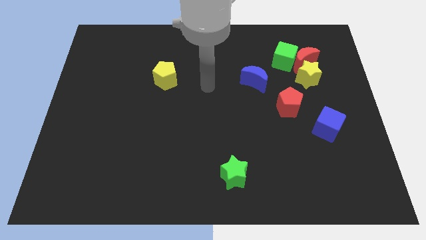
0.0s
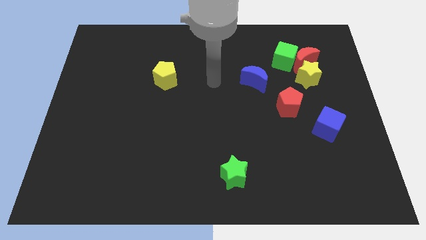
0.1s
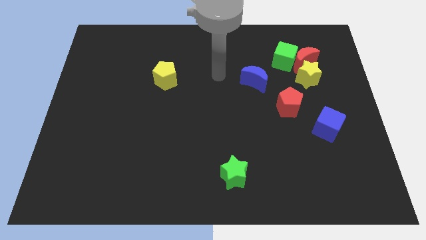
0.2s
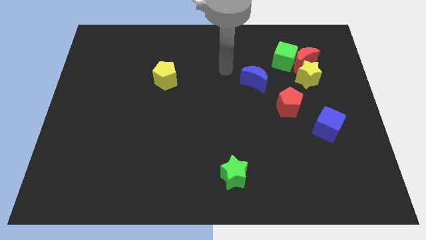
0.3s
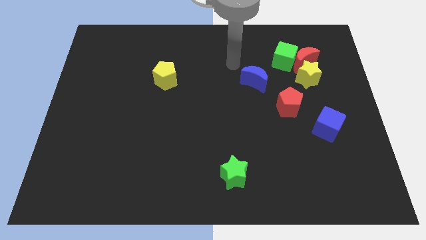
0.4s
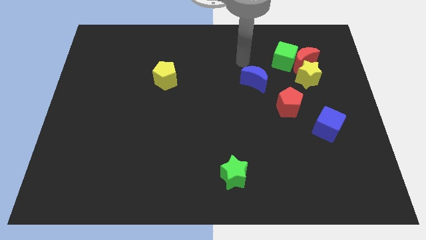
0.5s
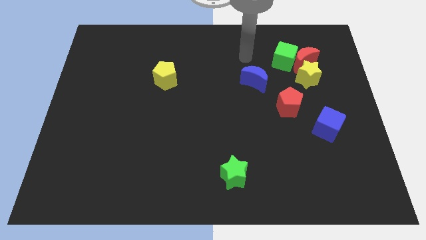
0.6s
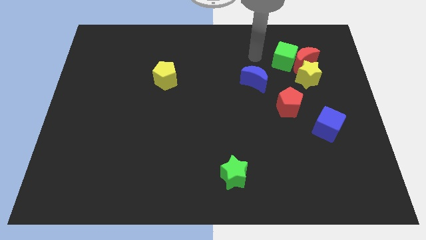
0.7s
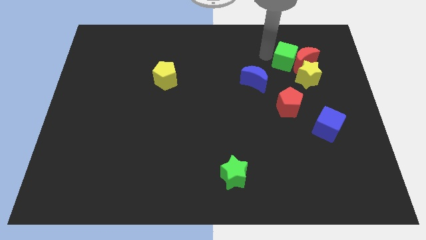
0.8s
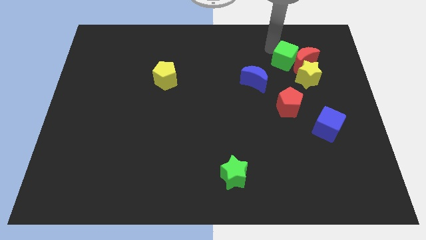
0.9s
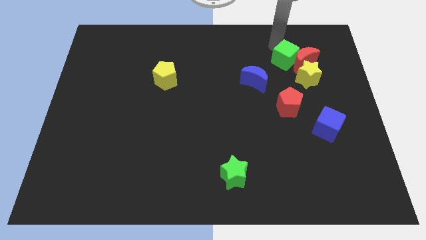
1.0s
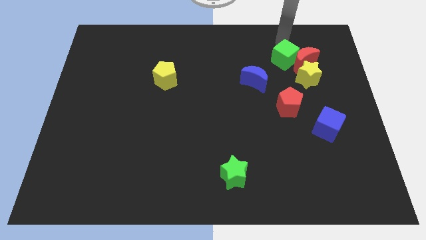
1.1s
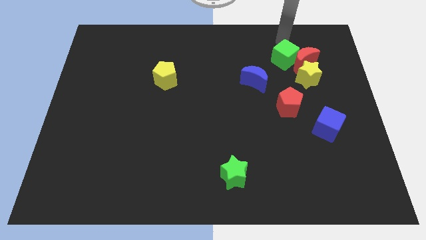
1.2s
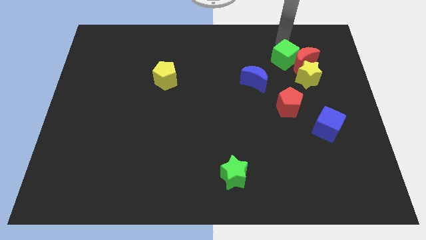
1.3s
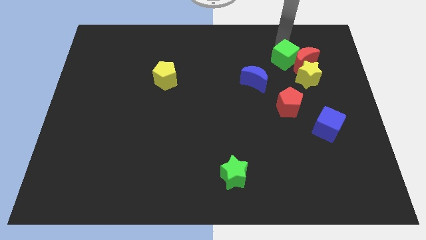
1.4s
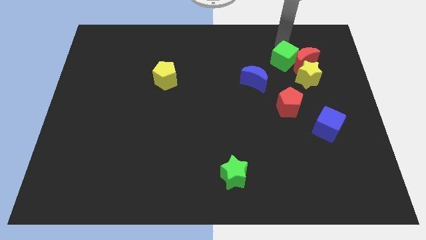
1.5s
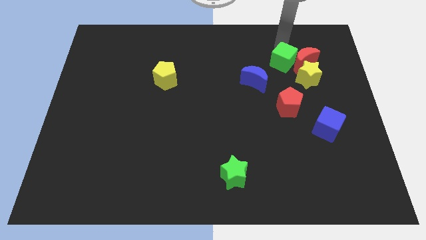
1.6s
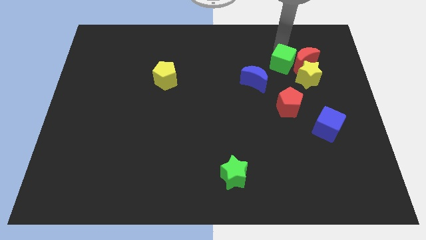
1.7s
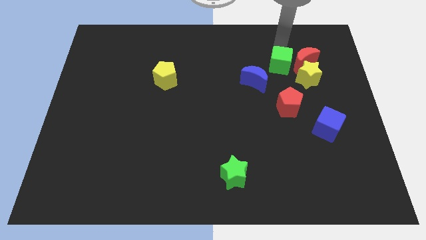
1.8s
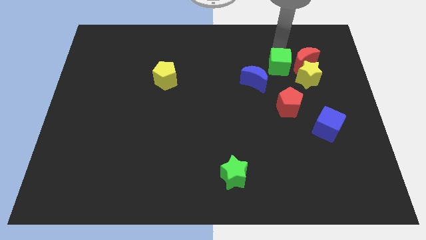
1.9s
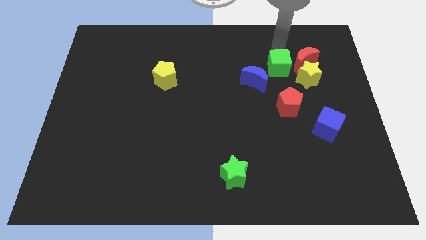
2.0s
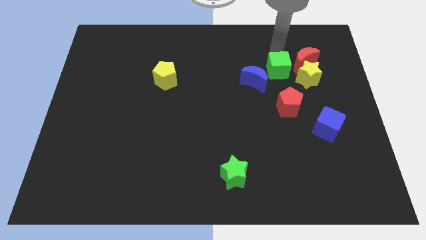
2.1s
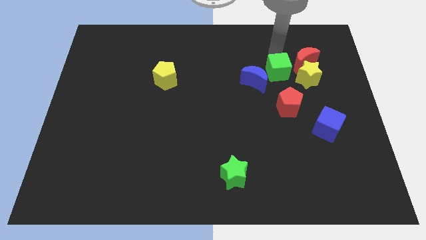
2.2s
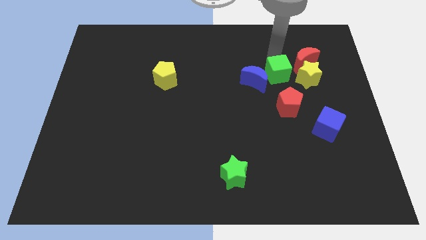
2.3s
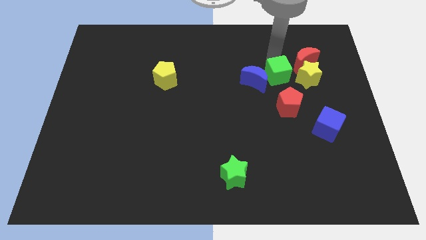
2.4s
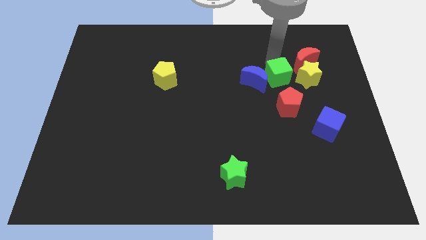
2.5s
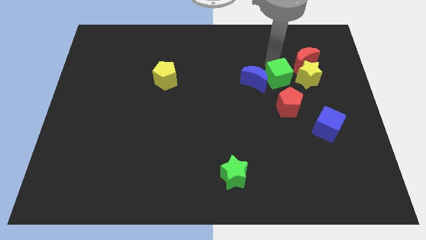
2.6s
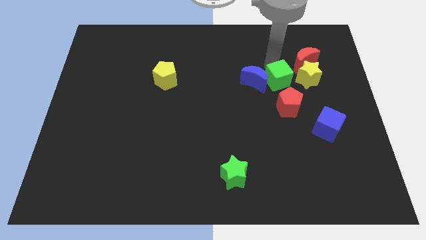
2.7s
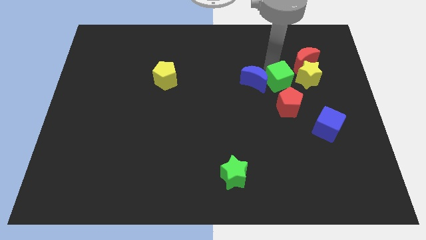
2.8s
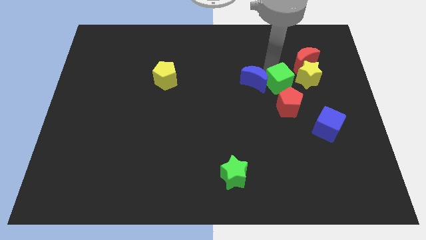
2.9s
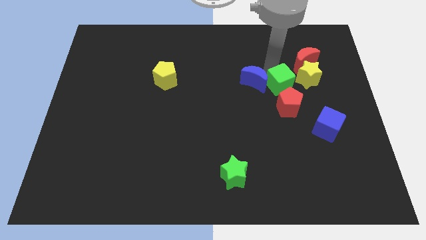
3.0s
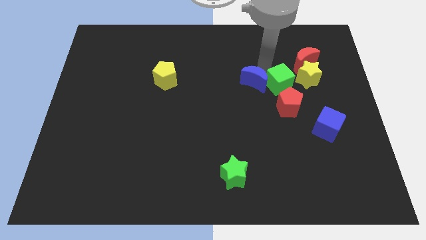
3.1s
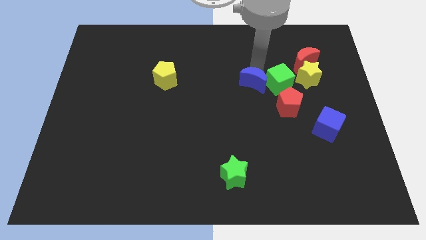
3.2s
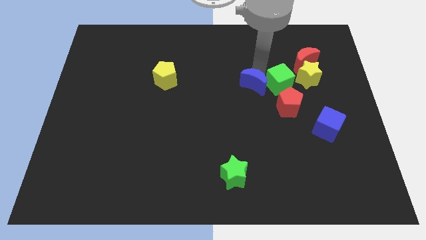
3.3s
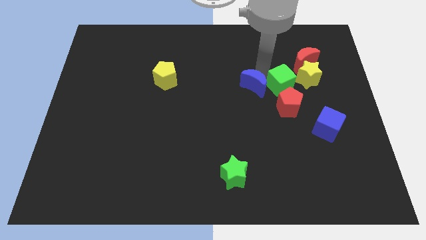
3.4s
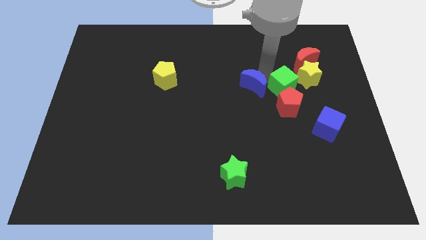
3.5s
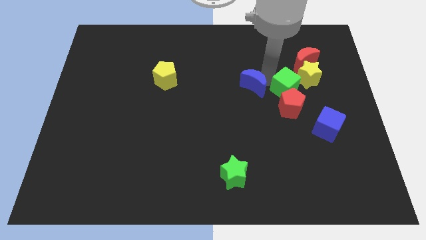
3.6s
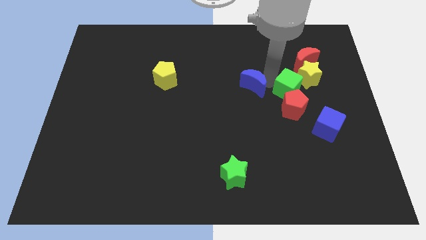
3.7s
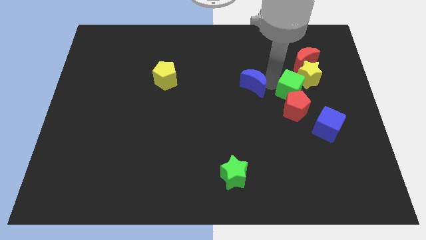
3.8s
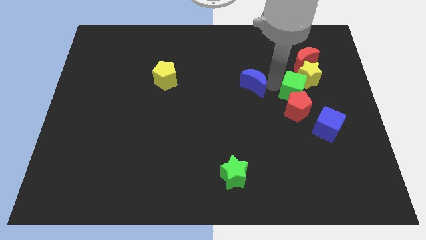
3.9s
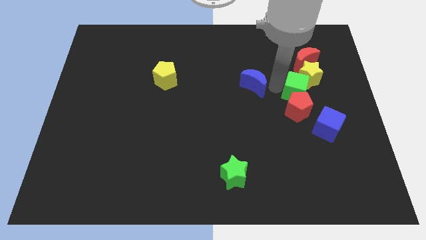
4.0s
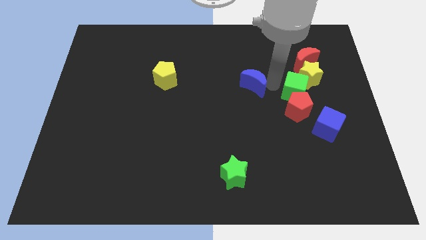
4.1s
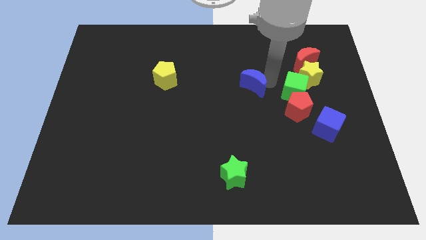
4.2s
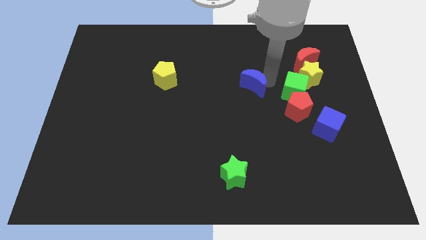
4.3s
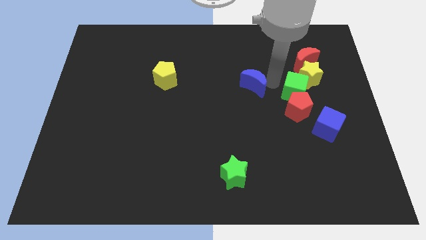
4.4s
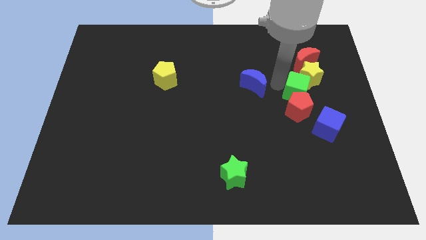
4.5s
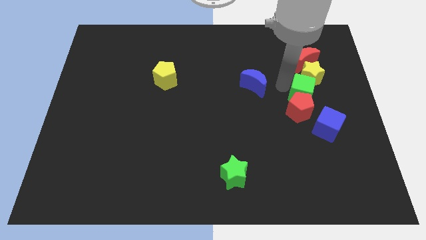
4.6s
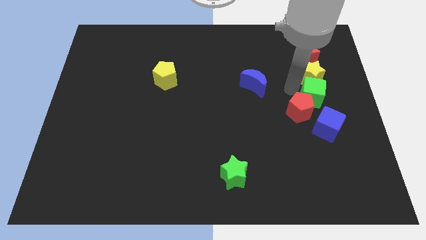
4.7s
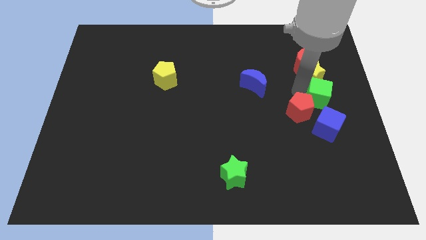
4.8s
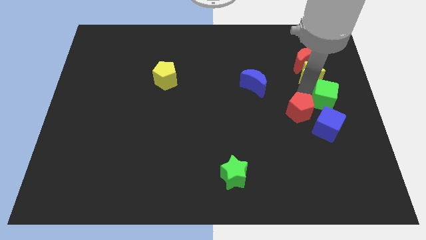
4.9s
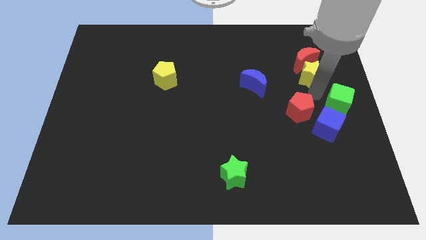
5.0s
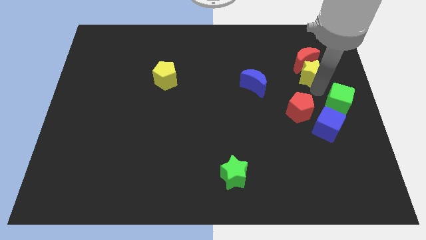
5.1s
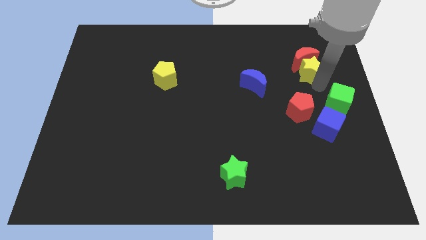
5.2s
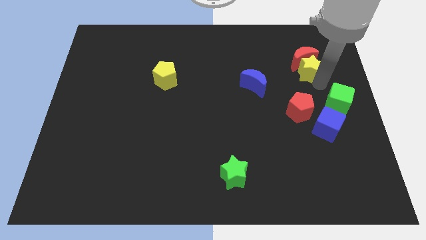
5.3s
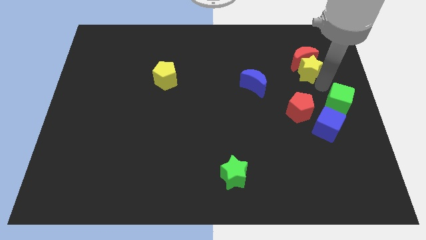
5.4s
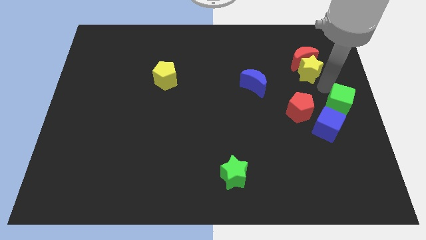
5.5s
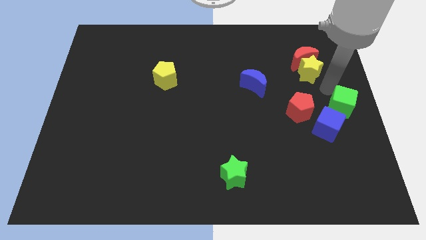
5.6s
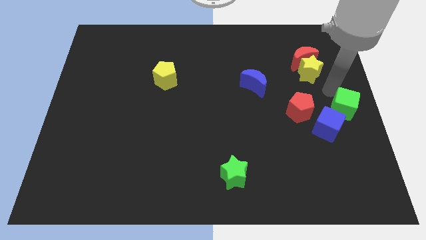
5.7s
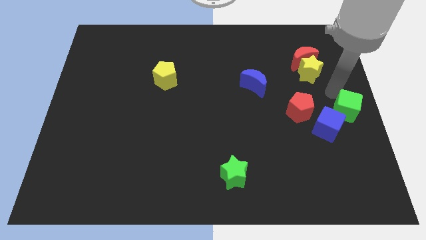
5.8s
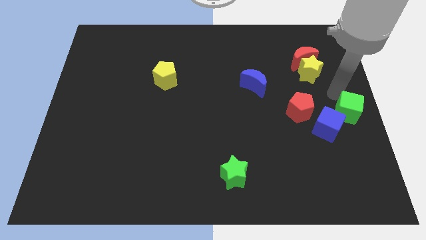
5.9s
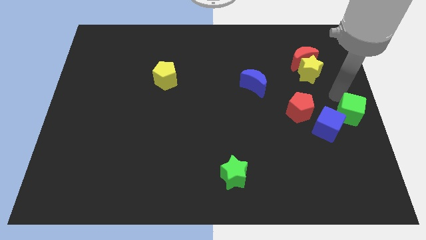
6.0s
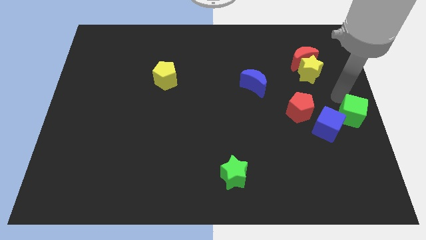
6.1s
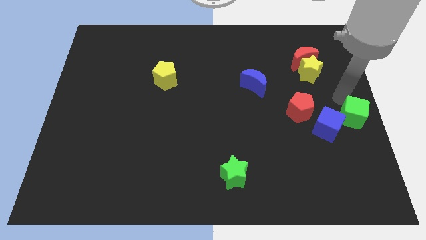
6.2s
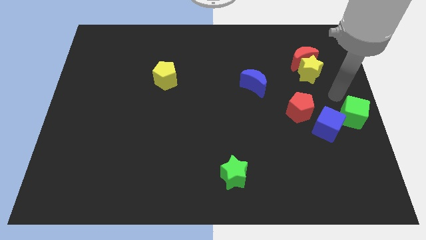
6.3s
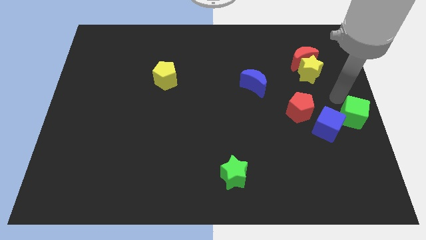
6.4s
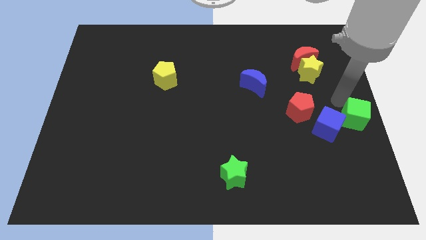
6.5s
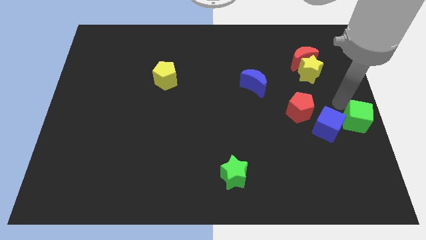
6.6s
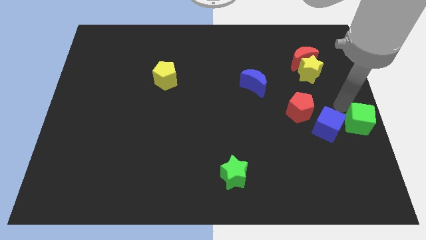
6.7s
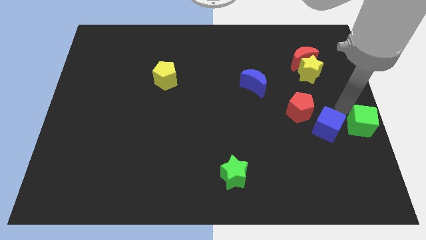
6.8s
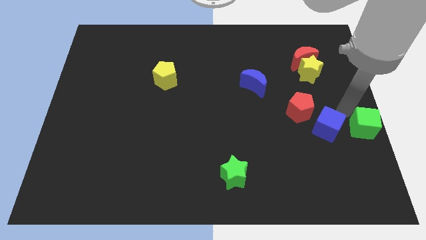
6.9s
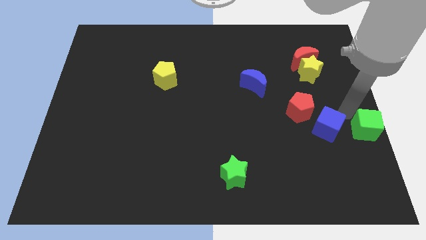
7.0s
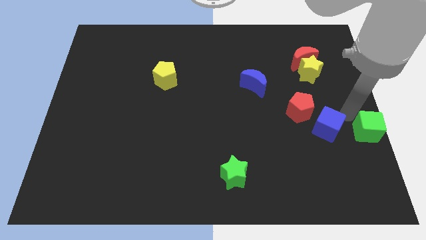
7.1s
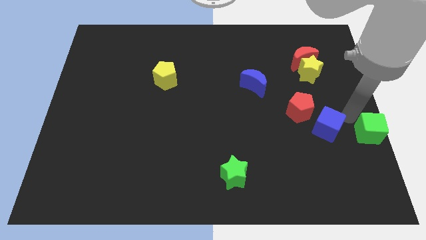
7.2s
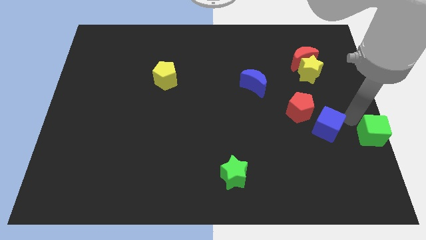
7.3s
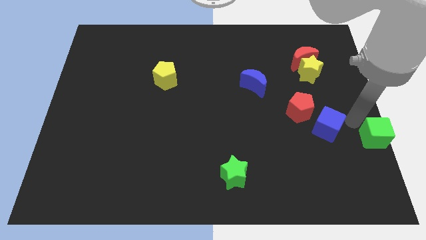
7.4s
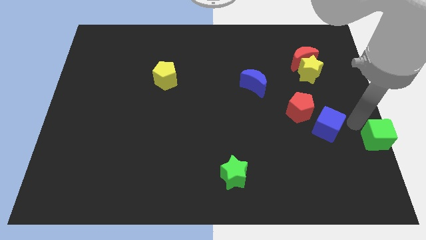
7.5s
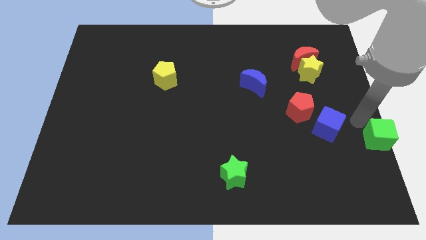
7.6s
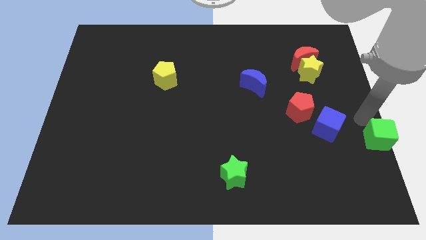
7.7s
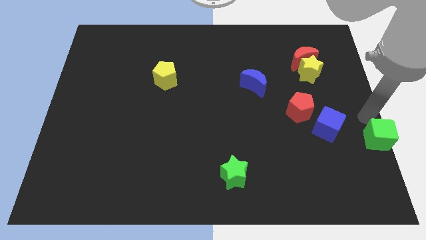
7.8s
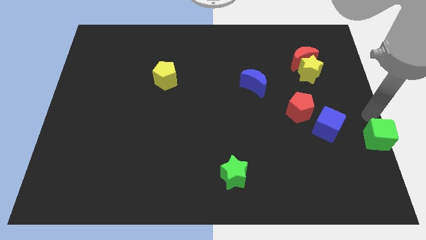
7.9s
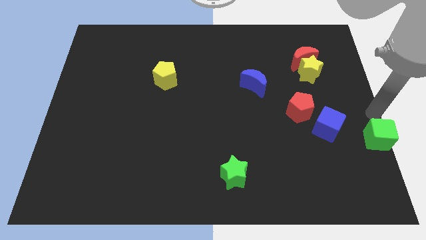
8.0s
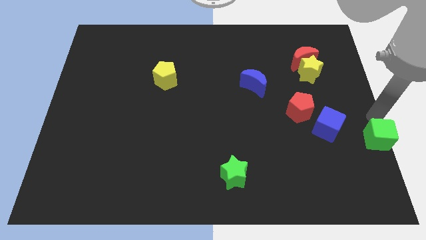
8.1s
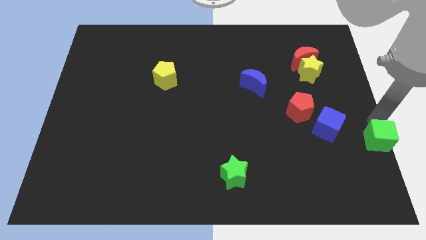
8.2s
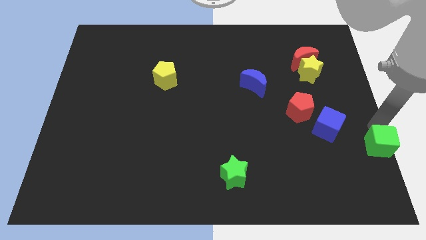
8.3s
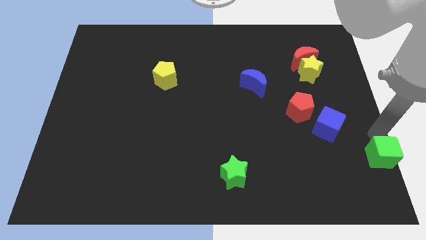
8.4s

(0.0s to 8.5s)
slide the green cube to the bottom right of the board
